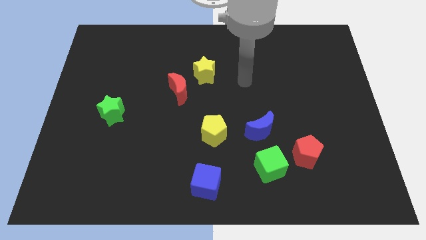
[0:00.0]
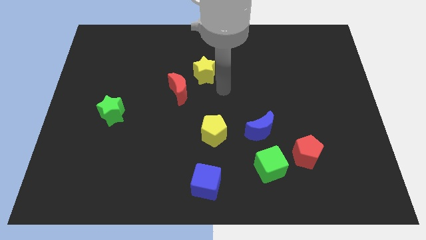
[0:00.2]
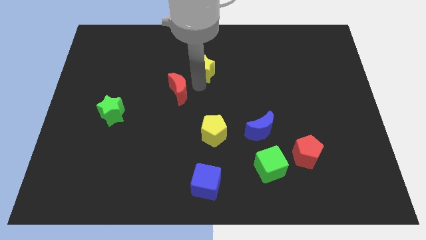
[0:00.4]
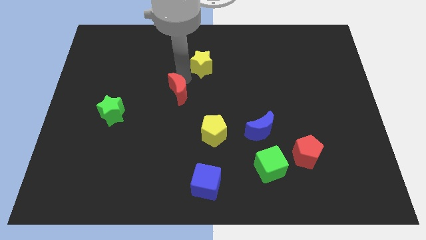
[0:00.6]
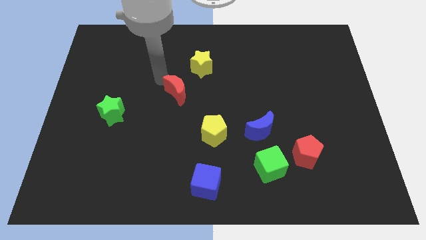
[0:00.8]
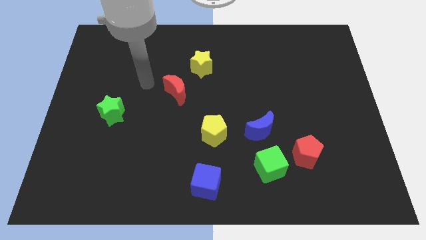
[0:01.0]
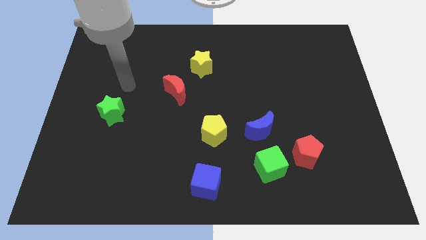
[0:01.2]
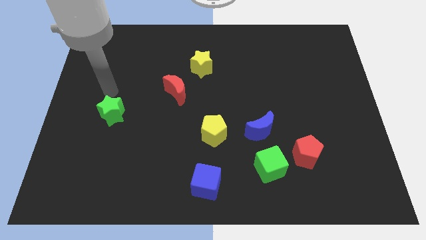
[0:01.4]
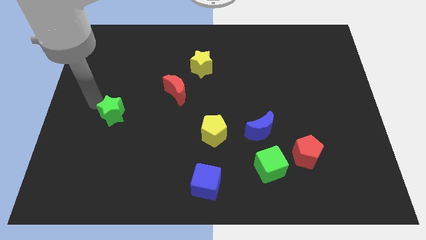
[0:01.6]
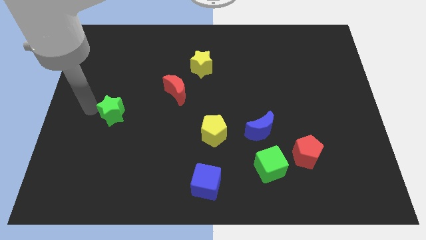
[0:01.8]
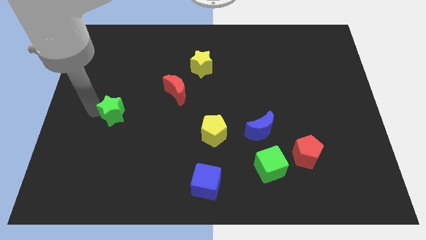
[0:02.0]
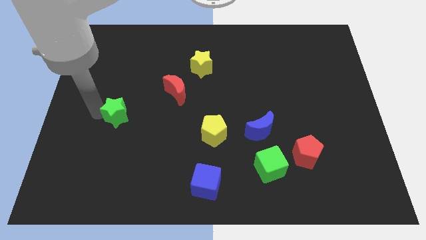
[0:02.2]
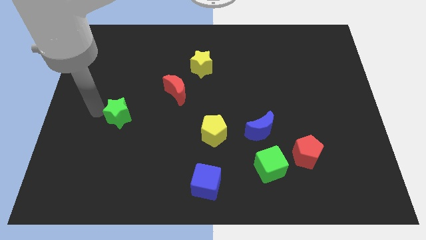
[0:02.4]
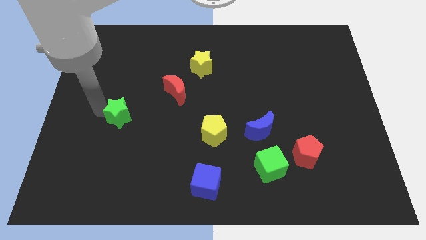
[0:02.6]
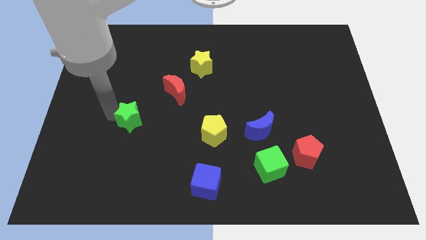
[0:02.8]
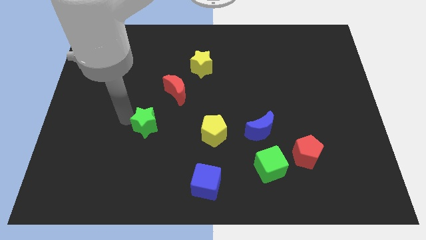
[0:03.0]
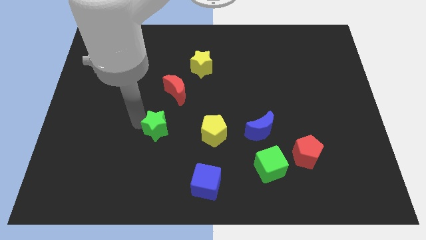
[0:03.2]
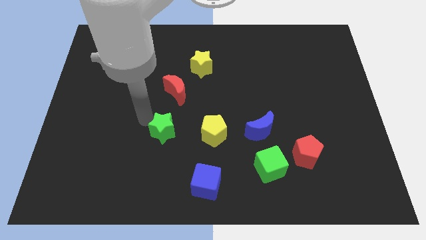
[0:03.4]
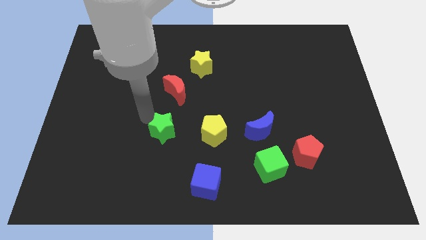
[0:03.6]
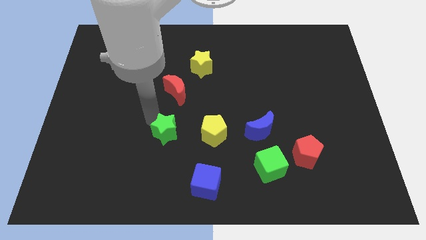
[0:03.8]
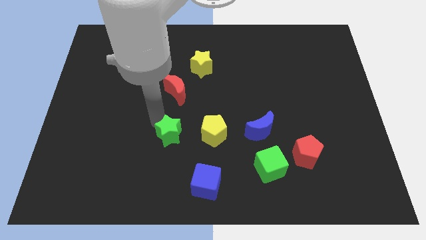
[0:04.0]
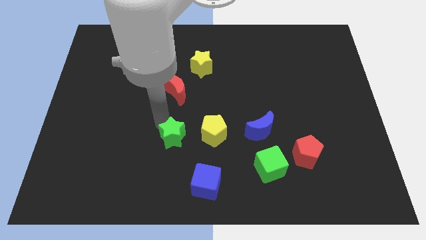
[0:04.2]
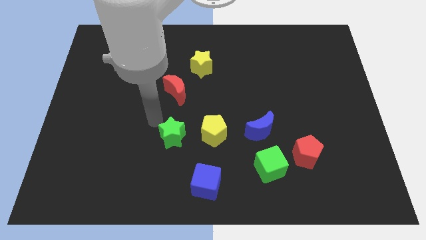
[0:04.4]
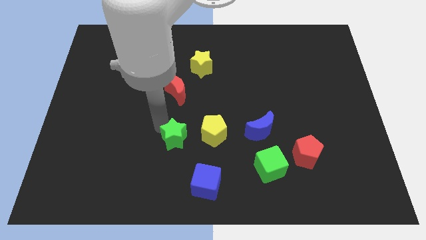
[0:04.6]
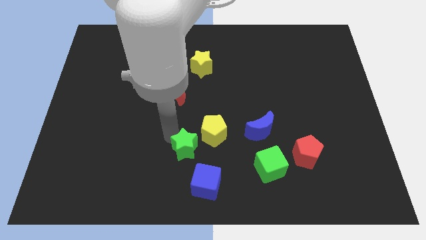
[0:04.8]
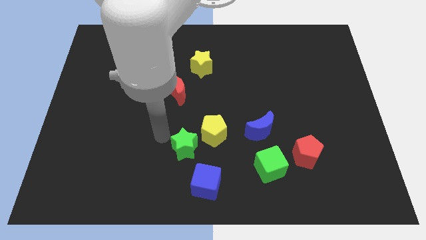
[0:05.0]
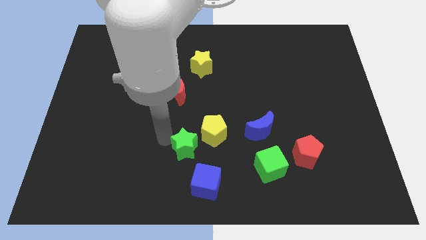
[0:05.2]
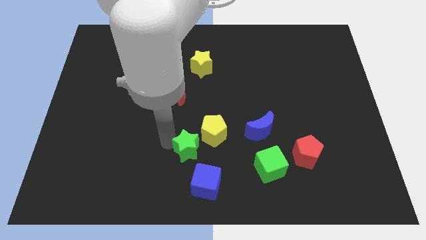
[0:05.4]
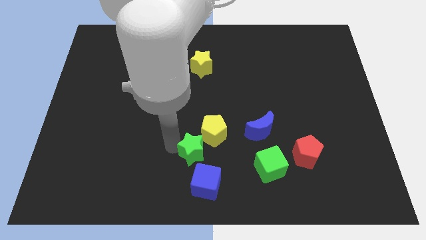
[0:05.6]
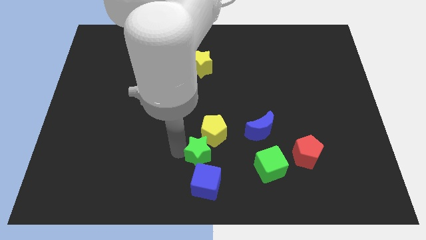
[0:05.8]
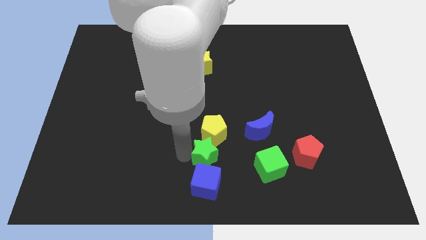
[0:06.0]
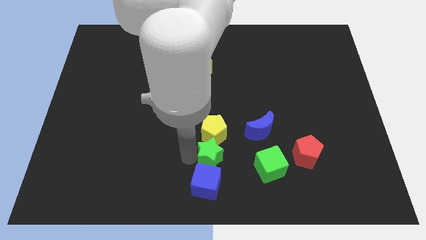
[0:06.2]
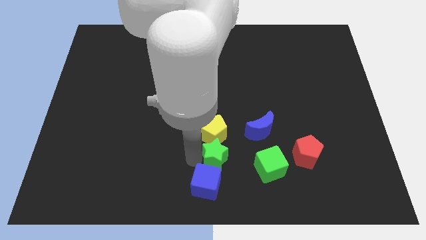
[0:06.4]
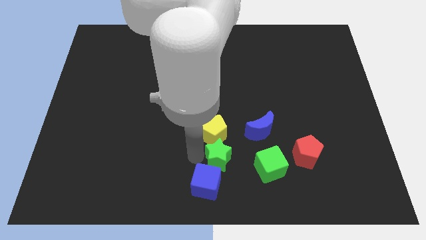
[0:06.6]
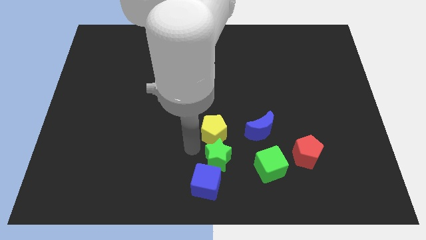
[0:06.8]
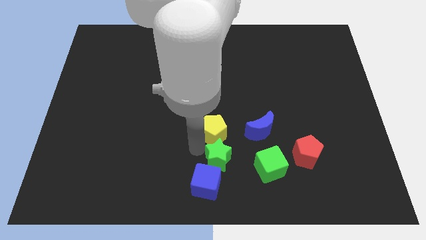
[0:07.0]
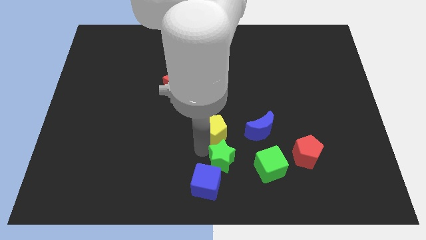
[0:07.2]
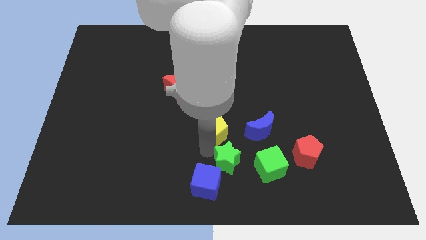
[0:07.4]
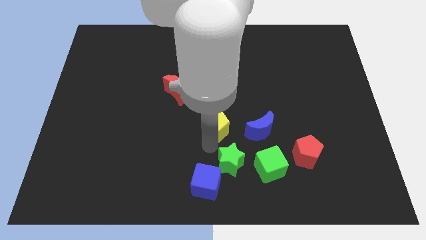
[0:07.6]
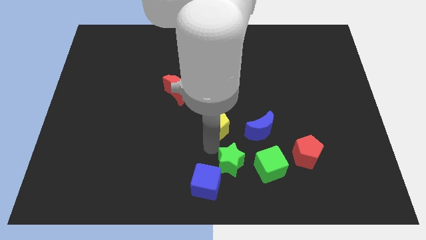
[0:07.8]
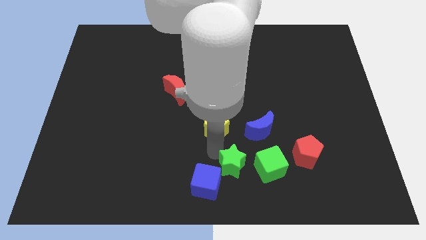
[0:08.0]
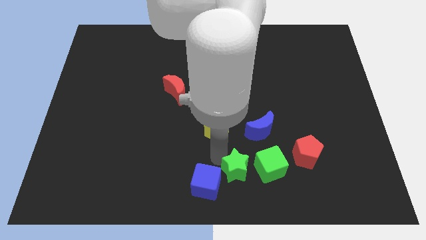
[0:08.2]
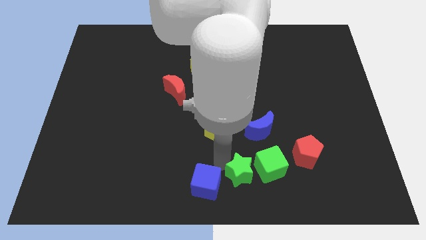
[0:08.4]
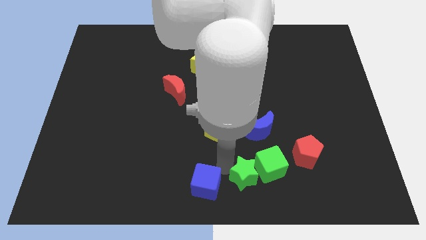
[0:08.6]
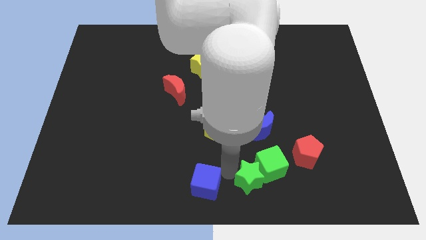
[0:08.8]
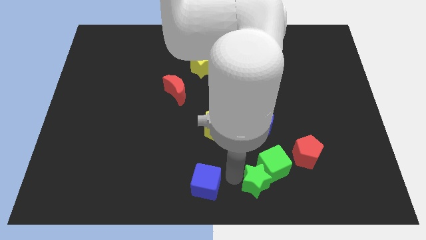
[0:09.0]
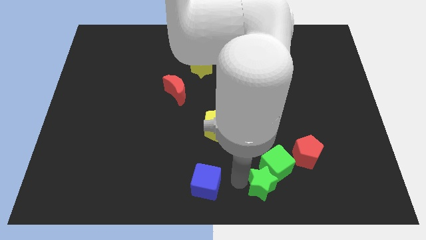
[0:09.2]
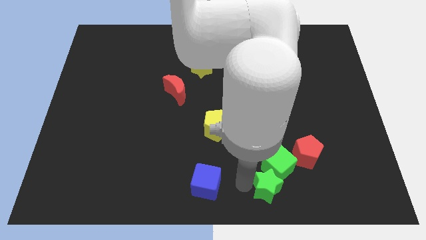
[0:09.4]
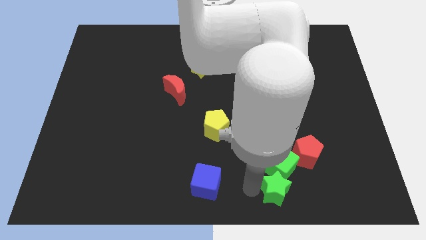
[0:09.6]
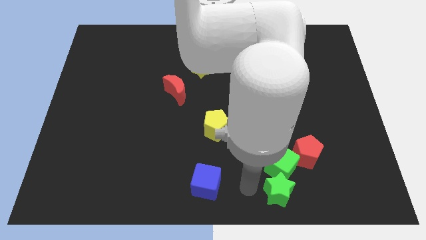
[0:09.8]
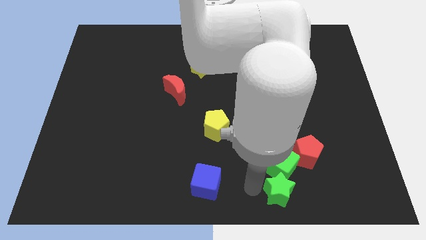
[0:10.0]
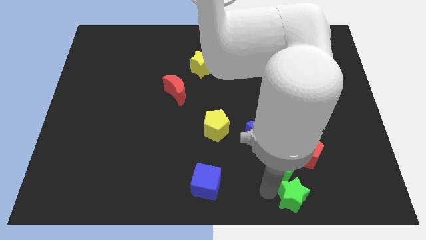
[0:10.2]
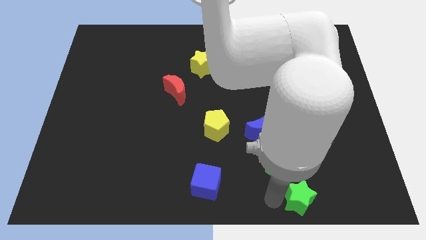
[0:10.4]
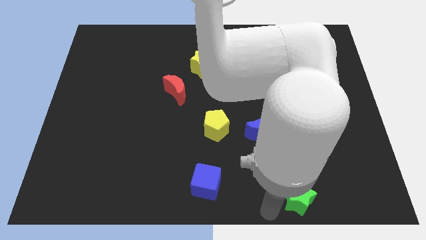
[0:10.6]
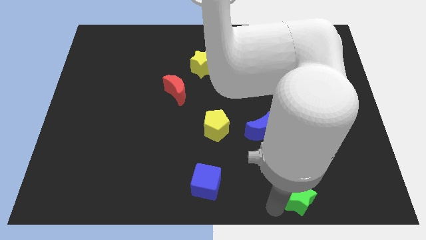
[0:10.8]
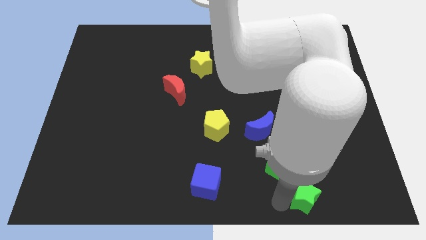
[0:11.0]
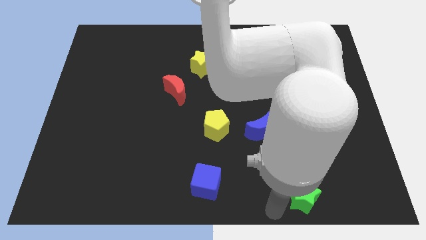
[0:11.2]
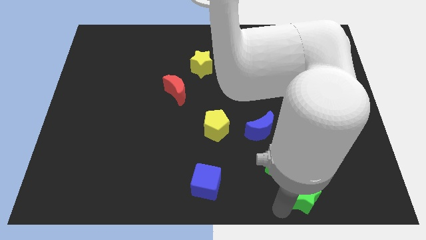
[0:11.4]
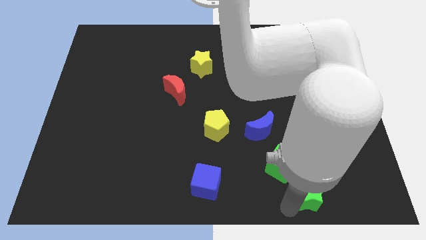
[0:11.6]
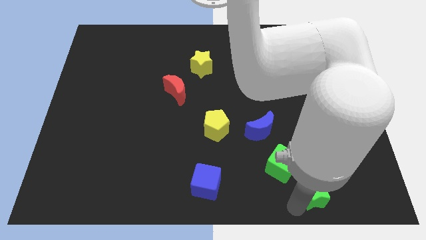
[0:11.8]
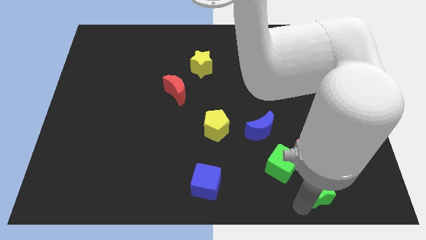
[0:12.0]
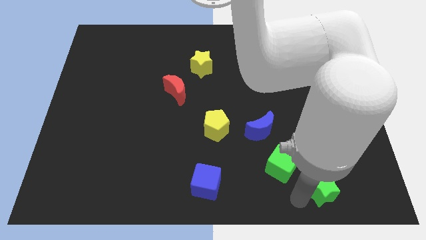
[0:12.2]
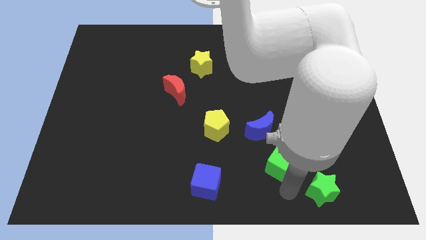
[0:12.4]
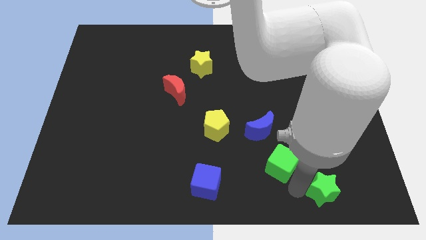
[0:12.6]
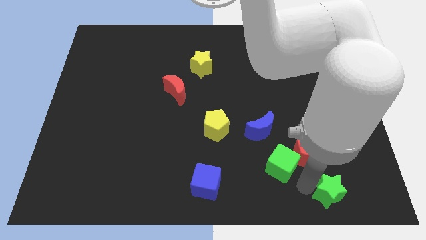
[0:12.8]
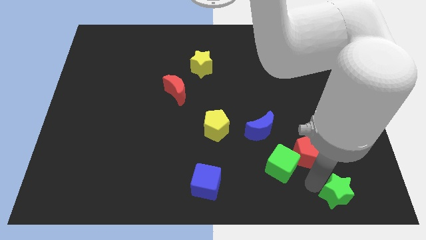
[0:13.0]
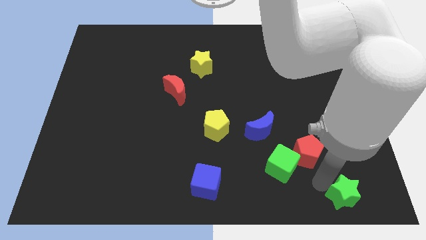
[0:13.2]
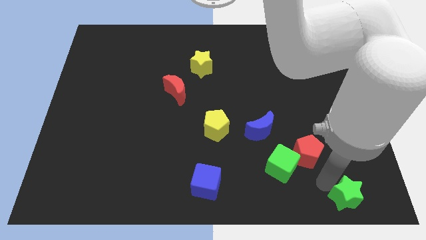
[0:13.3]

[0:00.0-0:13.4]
slide the green star to the lower right corner

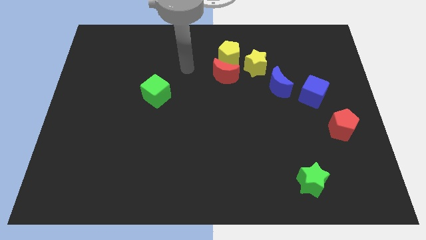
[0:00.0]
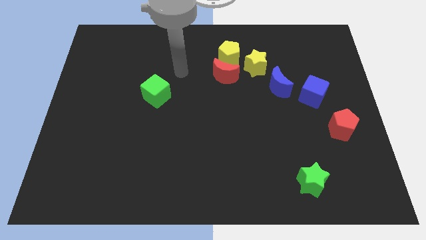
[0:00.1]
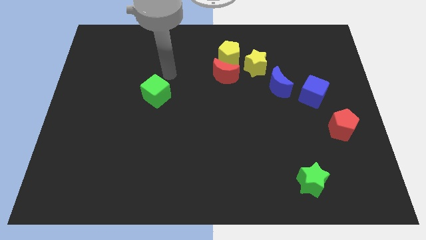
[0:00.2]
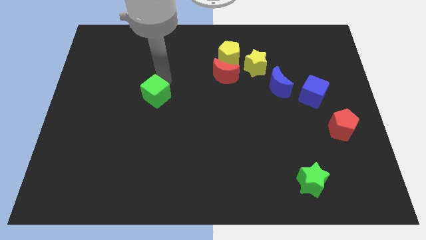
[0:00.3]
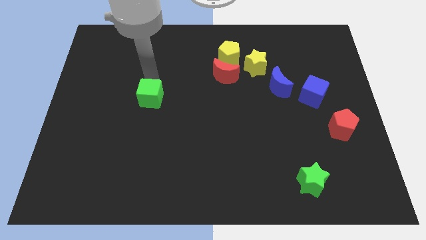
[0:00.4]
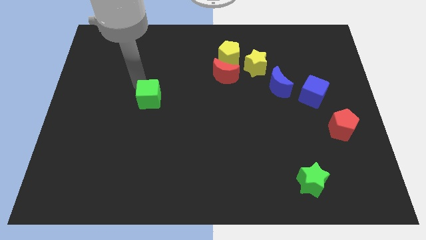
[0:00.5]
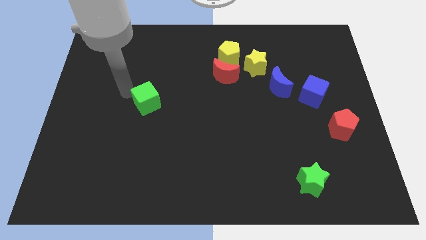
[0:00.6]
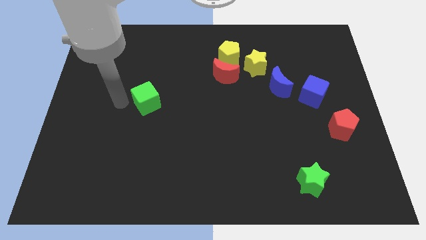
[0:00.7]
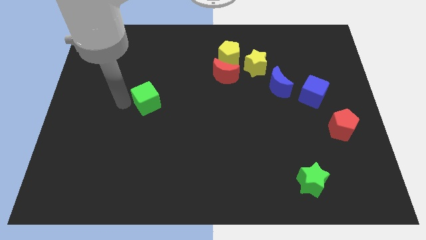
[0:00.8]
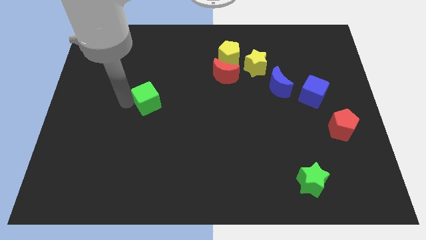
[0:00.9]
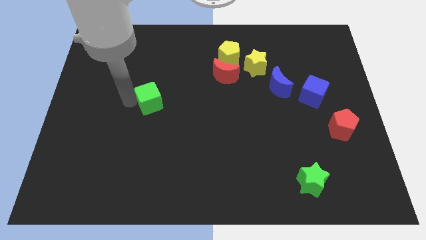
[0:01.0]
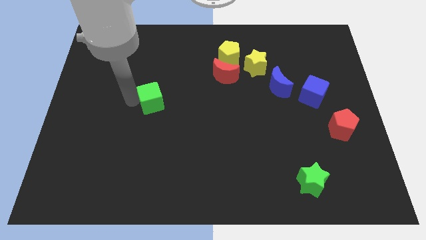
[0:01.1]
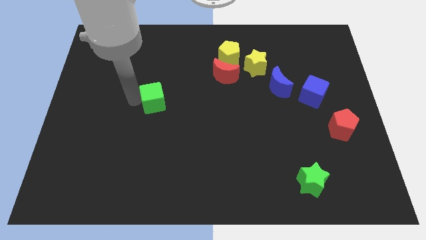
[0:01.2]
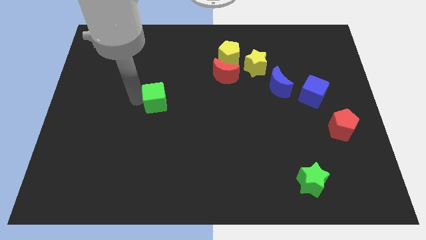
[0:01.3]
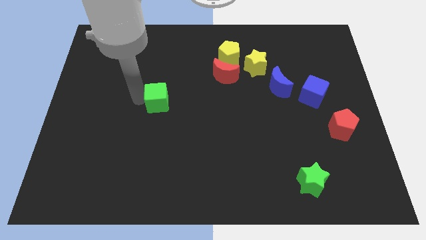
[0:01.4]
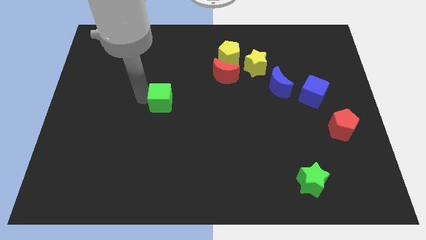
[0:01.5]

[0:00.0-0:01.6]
put the green cube to the center
